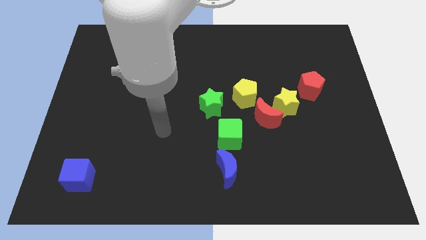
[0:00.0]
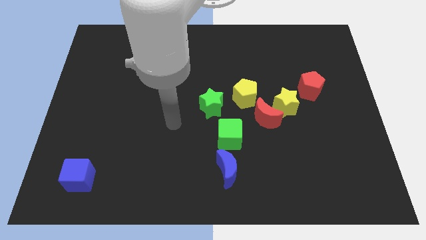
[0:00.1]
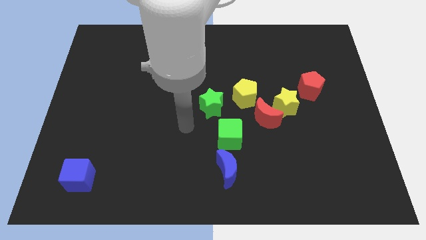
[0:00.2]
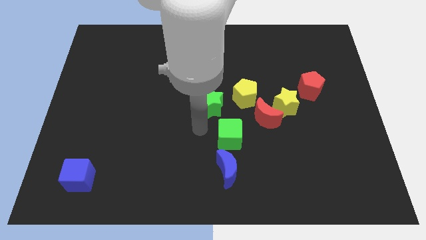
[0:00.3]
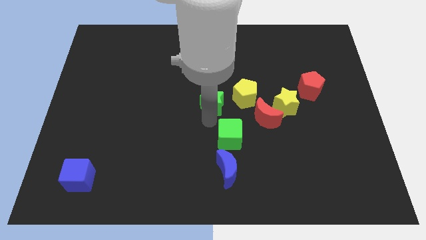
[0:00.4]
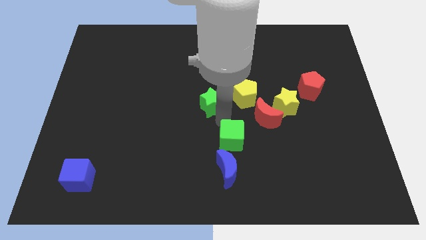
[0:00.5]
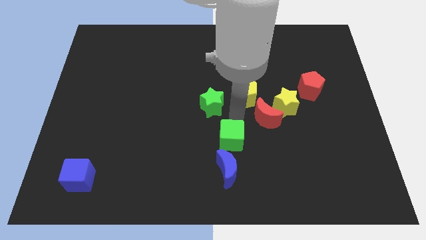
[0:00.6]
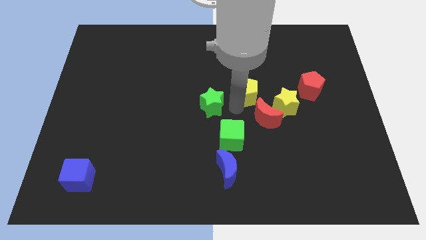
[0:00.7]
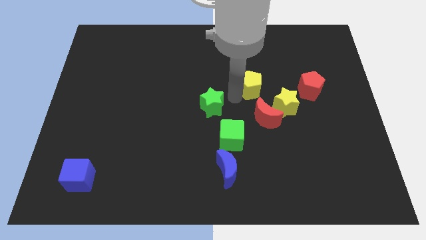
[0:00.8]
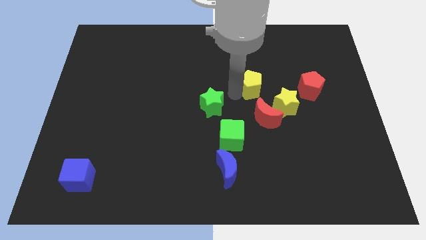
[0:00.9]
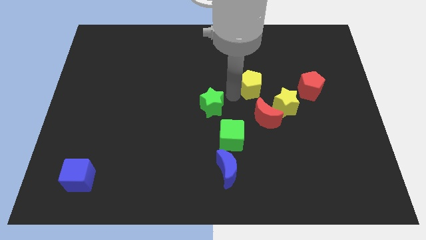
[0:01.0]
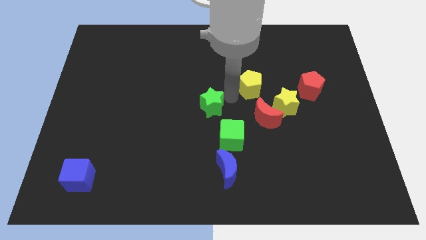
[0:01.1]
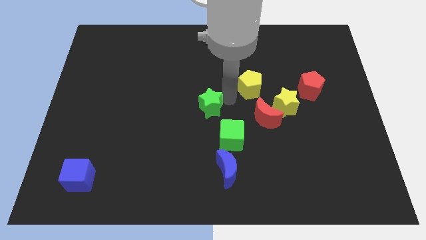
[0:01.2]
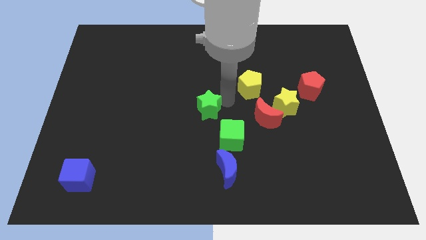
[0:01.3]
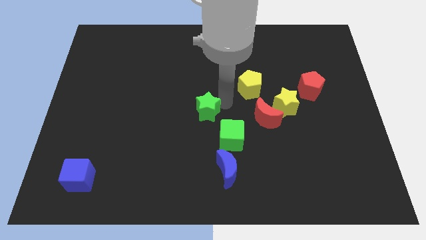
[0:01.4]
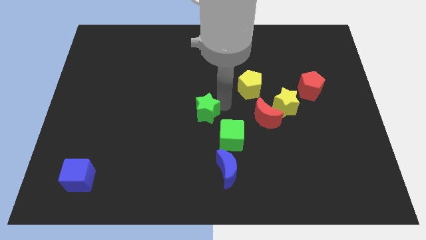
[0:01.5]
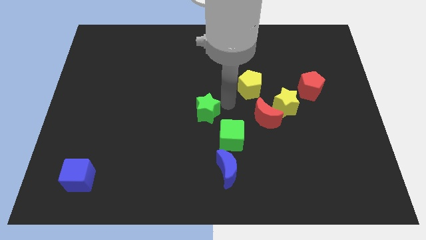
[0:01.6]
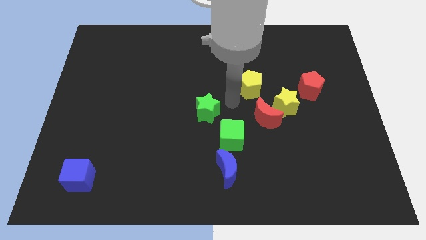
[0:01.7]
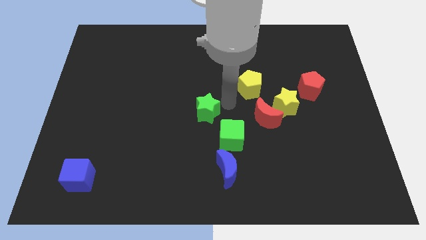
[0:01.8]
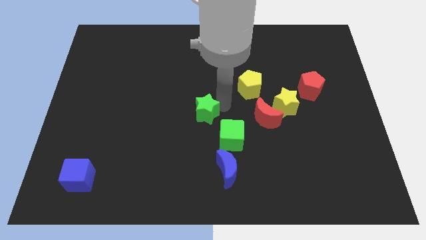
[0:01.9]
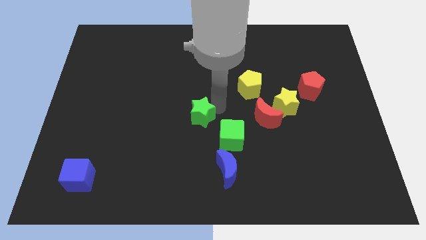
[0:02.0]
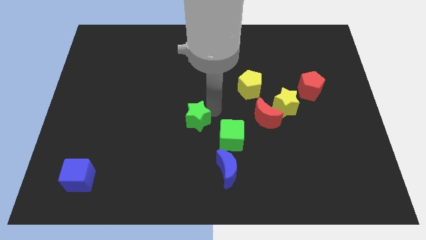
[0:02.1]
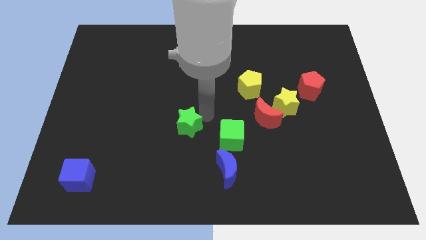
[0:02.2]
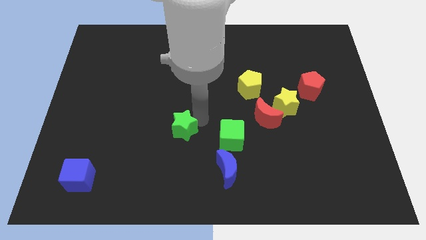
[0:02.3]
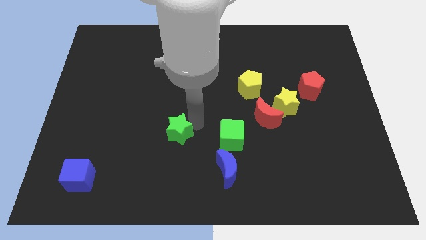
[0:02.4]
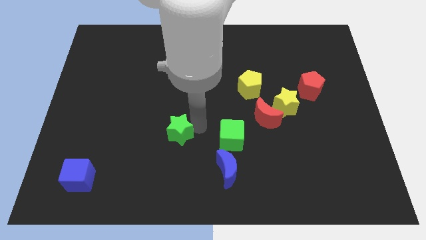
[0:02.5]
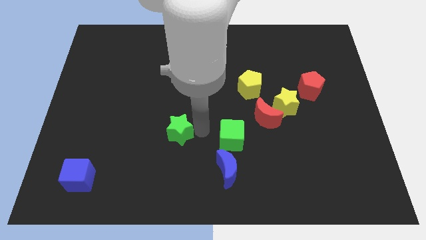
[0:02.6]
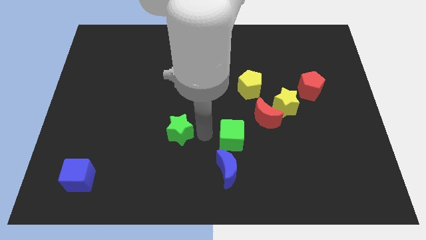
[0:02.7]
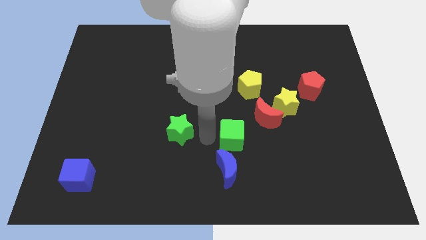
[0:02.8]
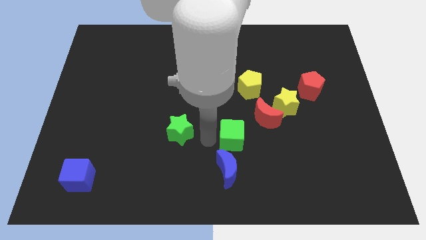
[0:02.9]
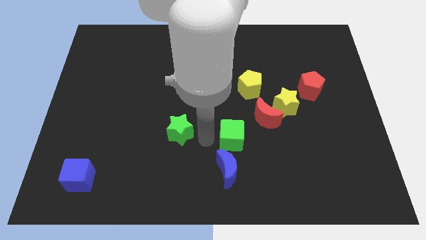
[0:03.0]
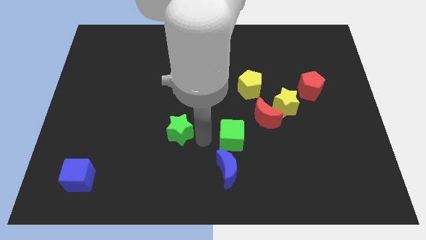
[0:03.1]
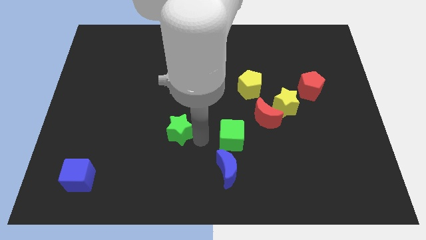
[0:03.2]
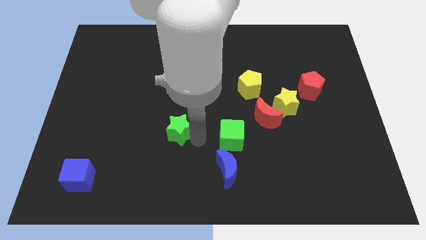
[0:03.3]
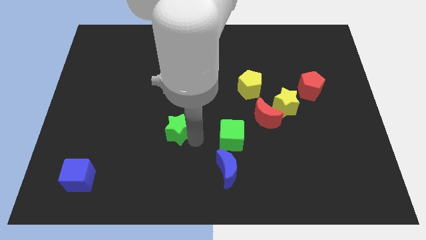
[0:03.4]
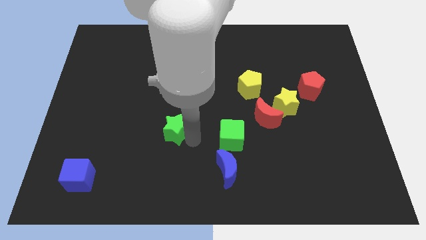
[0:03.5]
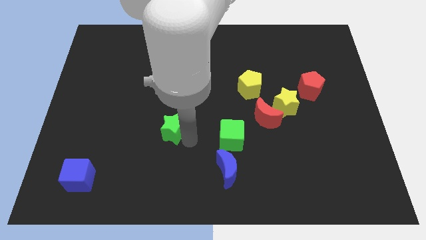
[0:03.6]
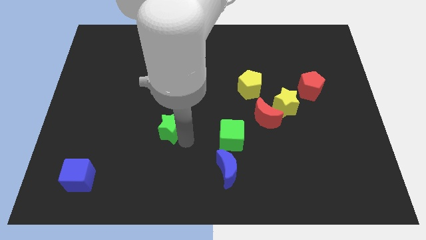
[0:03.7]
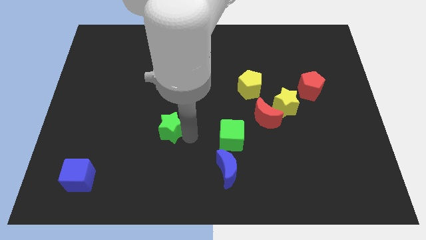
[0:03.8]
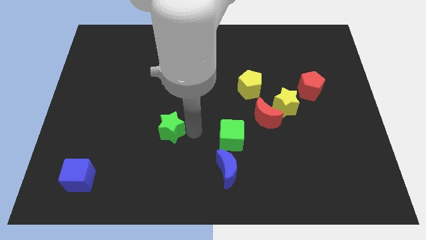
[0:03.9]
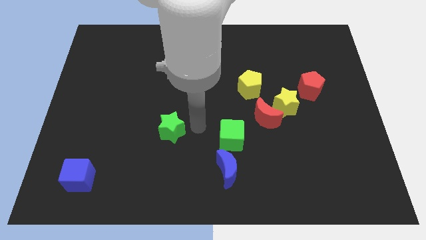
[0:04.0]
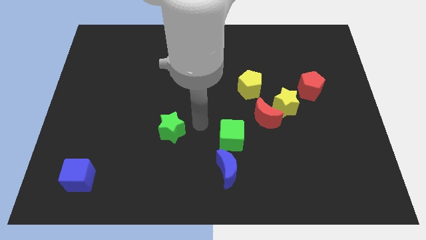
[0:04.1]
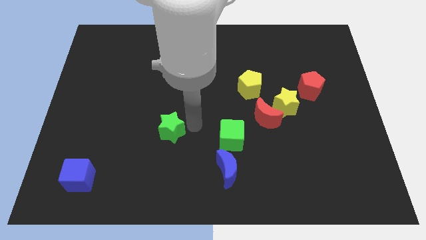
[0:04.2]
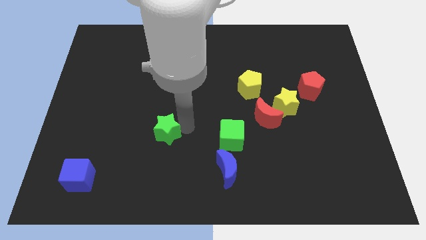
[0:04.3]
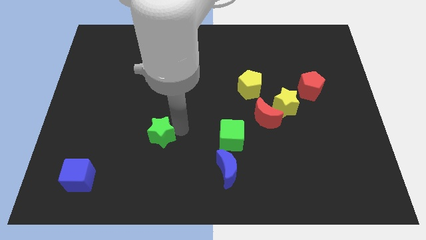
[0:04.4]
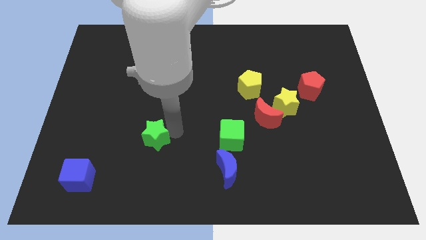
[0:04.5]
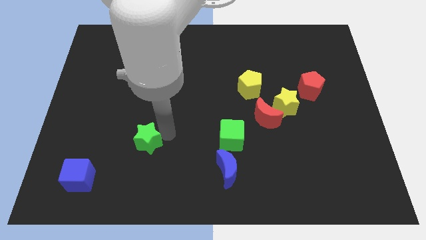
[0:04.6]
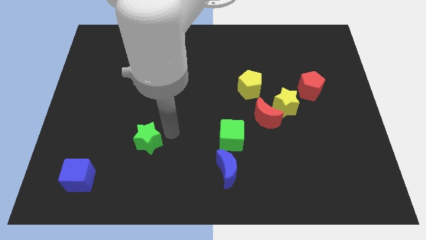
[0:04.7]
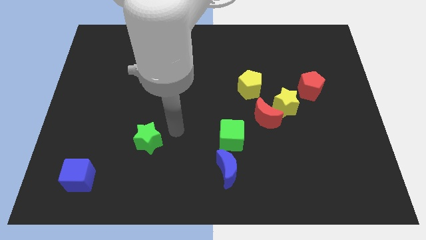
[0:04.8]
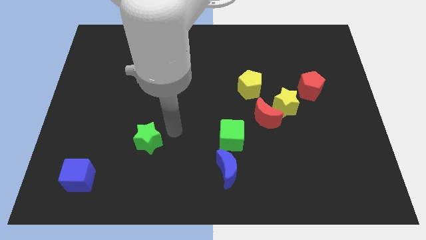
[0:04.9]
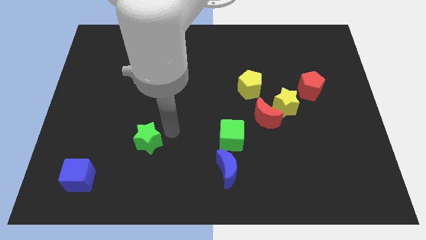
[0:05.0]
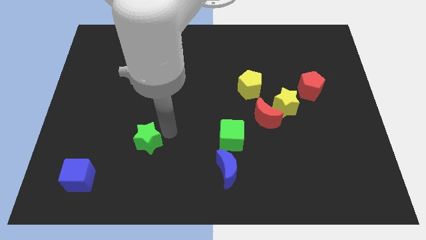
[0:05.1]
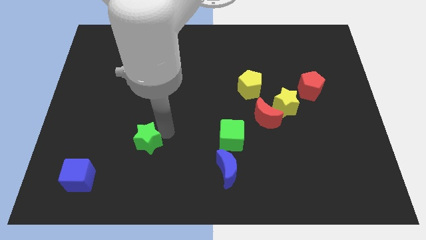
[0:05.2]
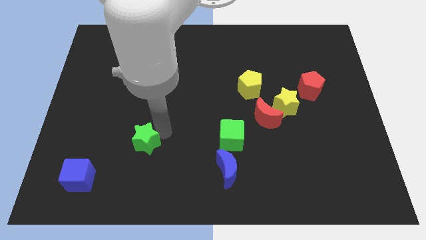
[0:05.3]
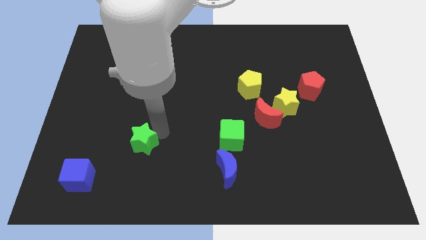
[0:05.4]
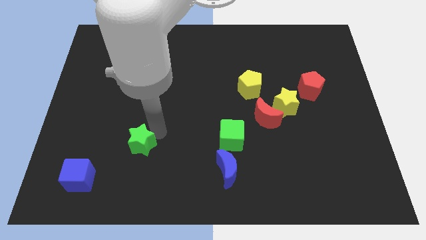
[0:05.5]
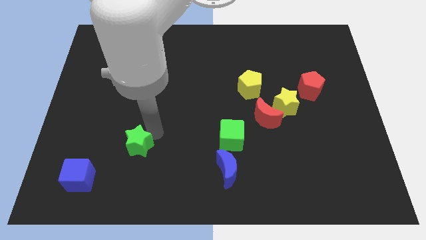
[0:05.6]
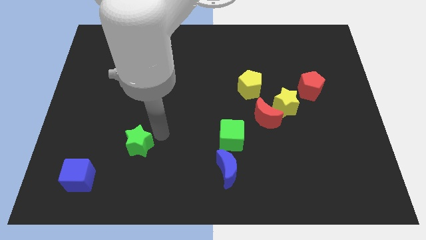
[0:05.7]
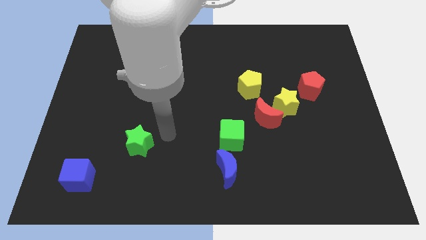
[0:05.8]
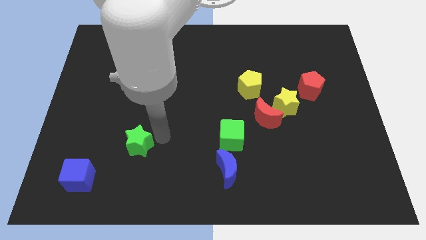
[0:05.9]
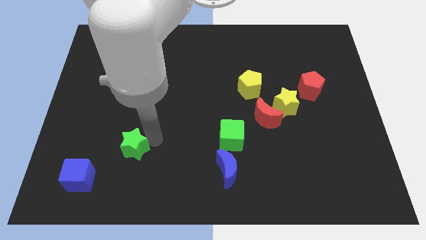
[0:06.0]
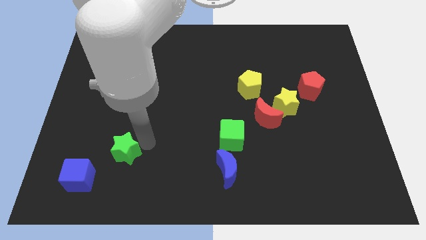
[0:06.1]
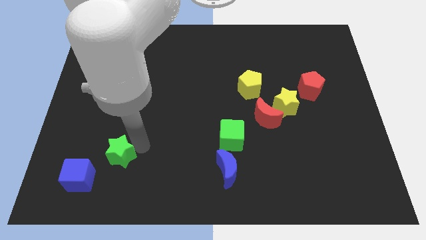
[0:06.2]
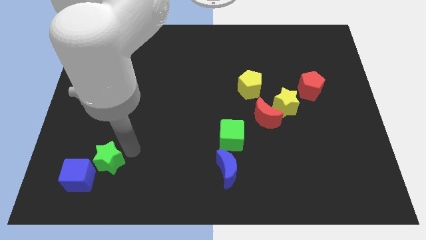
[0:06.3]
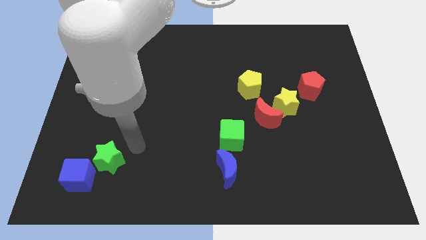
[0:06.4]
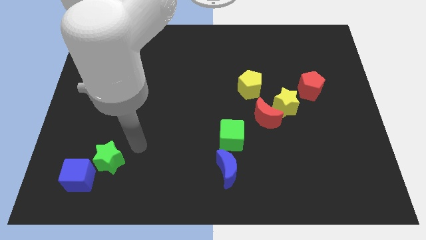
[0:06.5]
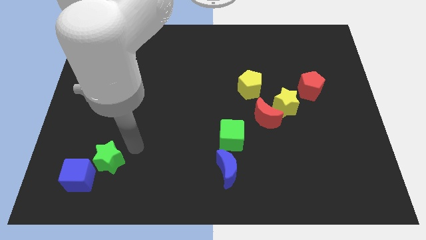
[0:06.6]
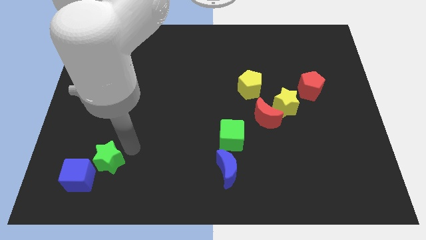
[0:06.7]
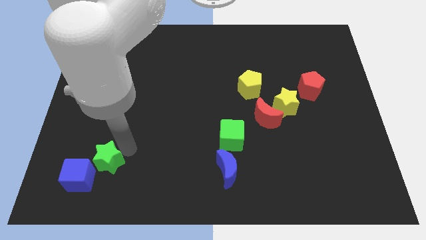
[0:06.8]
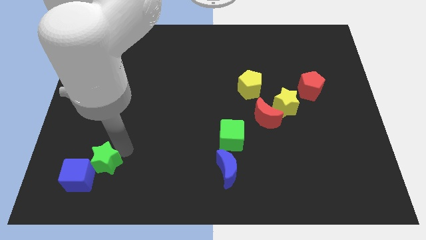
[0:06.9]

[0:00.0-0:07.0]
push the green star to the blue cube

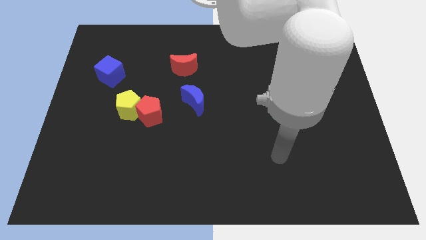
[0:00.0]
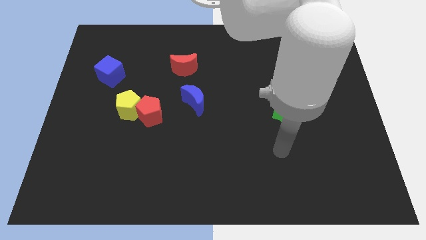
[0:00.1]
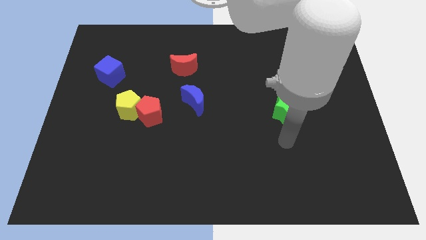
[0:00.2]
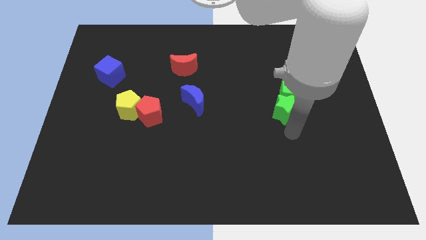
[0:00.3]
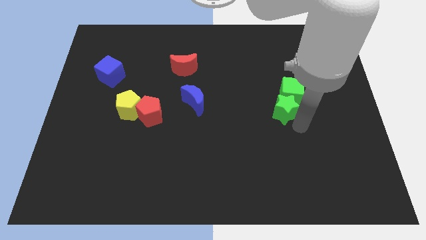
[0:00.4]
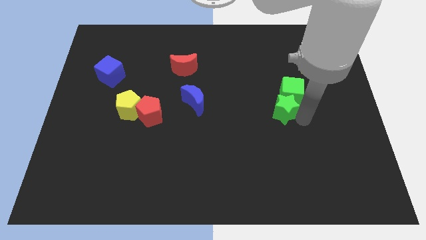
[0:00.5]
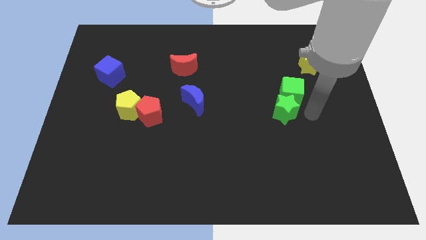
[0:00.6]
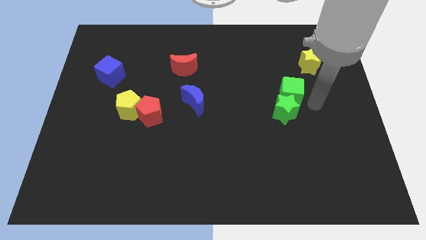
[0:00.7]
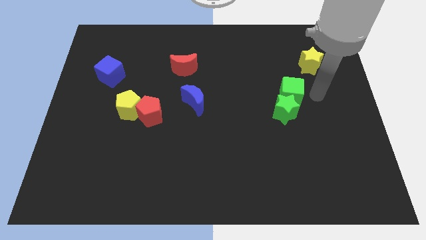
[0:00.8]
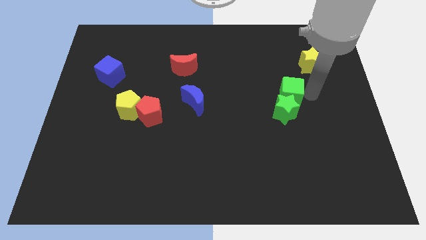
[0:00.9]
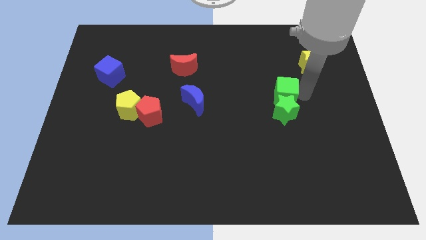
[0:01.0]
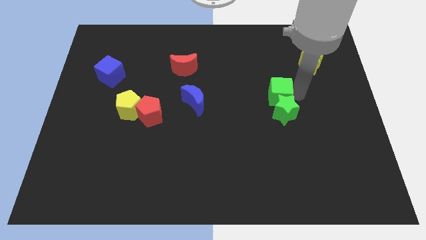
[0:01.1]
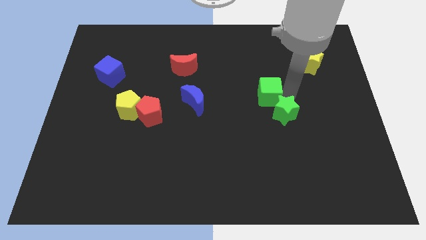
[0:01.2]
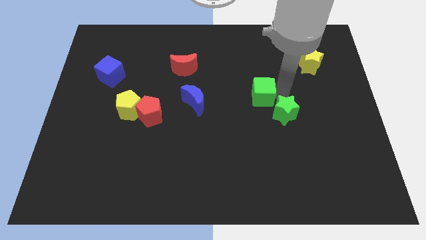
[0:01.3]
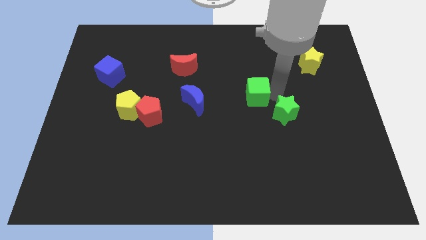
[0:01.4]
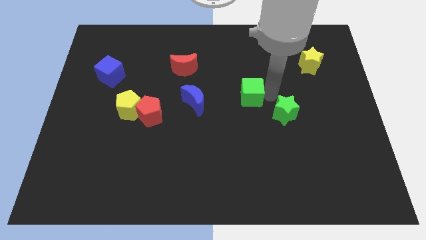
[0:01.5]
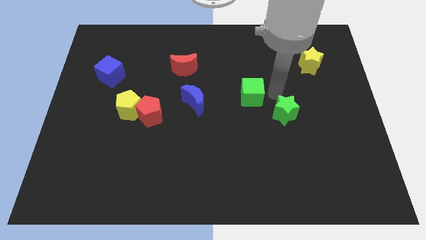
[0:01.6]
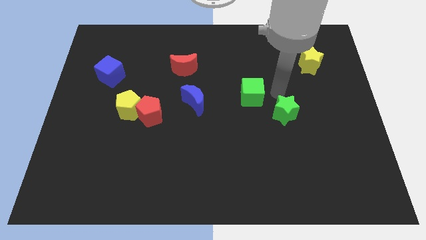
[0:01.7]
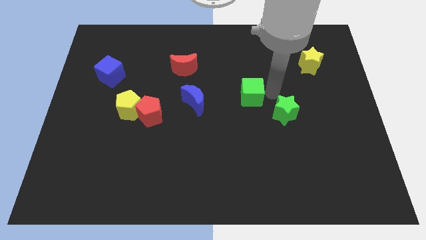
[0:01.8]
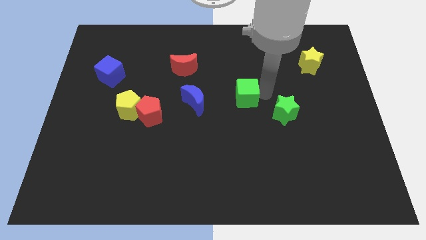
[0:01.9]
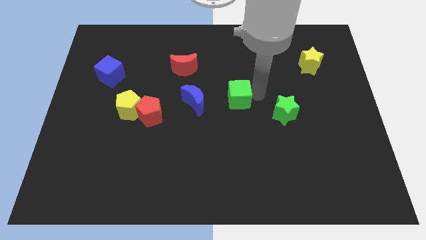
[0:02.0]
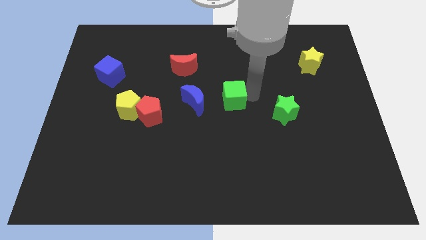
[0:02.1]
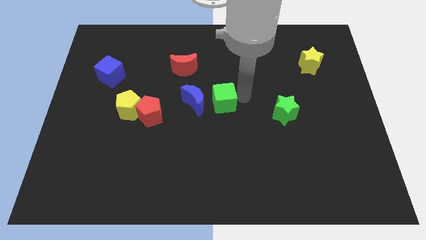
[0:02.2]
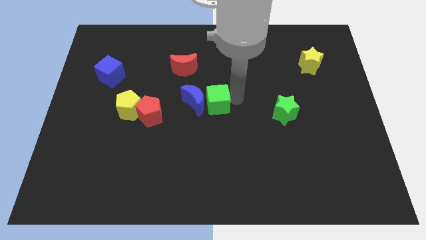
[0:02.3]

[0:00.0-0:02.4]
push the green cube next to the blue moon
